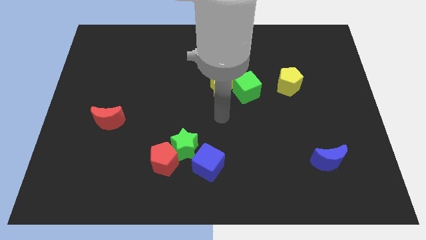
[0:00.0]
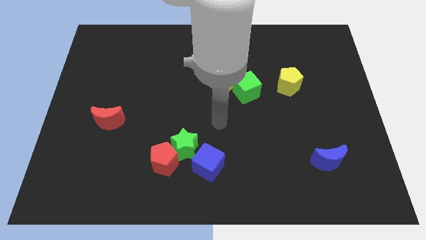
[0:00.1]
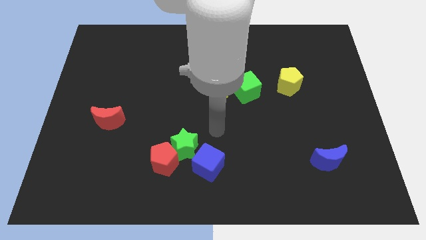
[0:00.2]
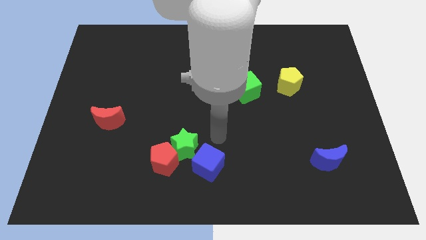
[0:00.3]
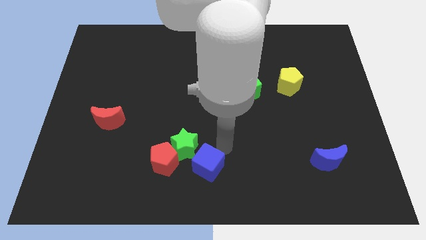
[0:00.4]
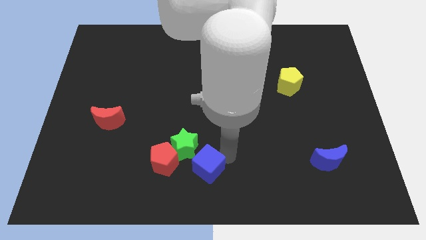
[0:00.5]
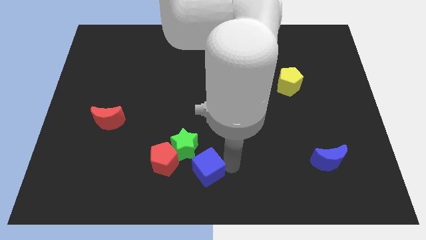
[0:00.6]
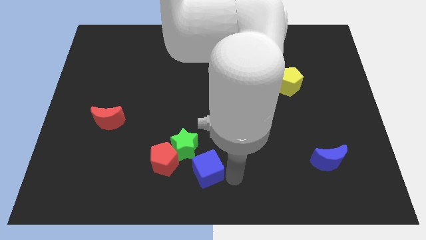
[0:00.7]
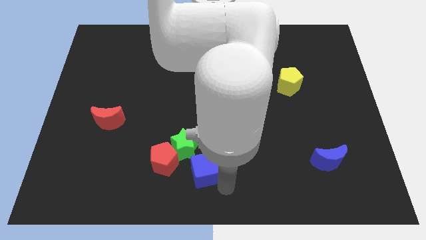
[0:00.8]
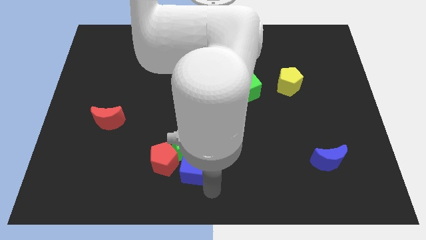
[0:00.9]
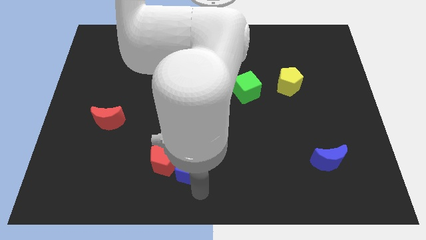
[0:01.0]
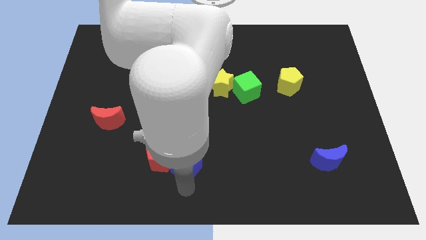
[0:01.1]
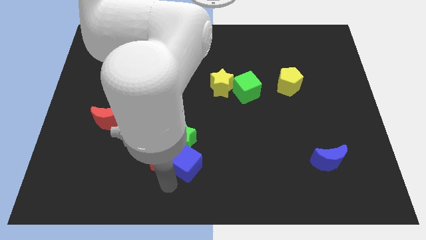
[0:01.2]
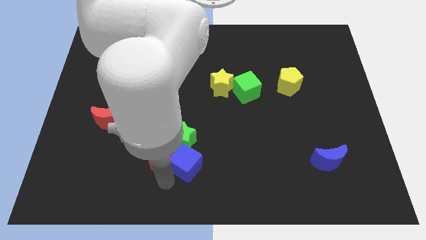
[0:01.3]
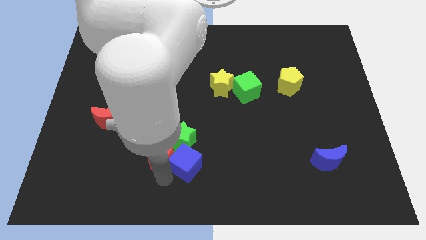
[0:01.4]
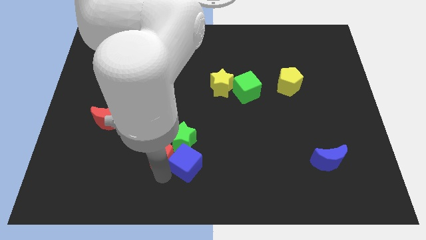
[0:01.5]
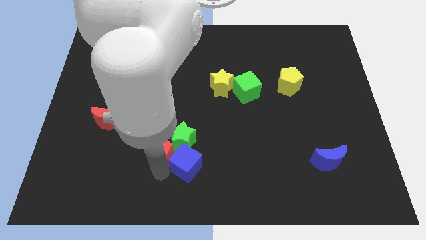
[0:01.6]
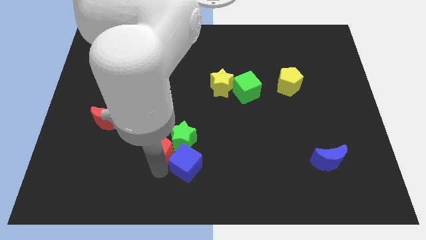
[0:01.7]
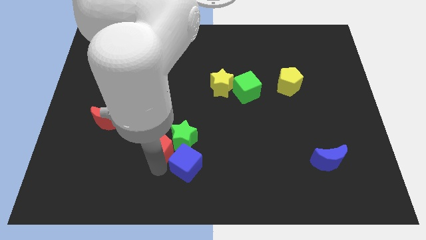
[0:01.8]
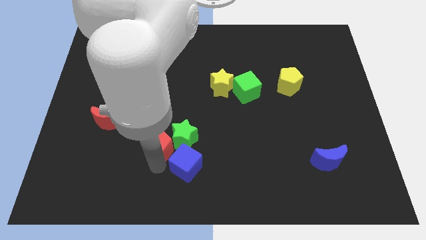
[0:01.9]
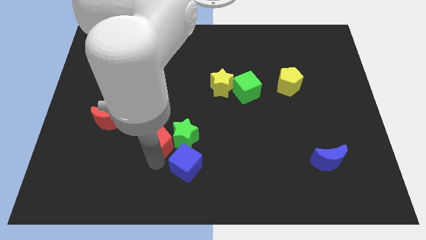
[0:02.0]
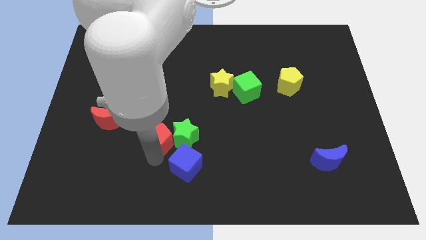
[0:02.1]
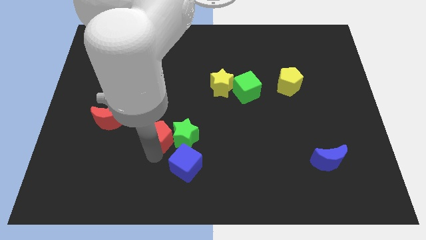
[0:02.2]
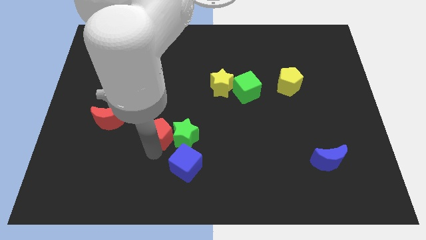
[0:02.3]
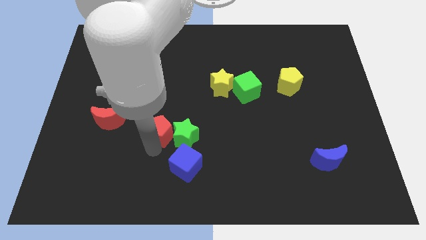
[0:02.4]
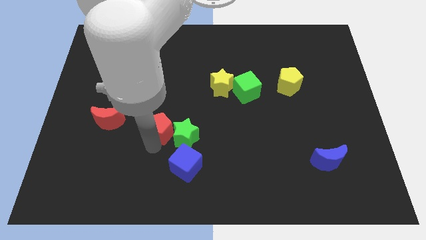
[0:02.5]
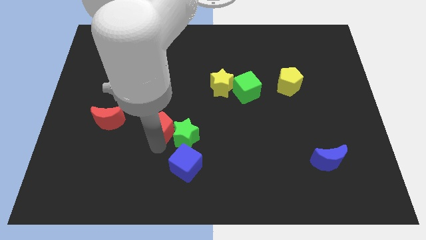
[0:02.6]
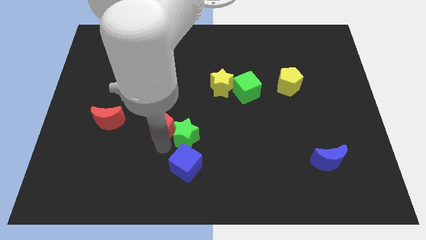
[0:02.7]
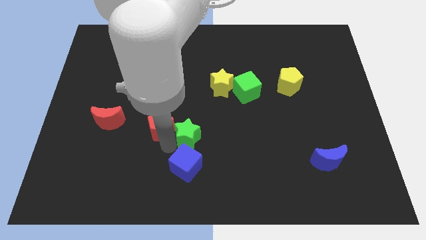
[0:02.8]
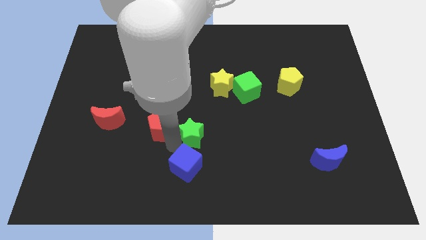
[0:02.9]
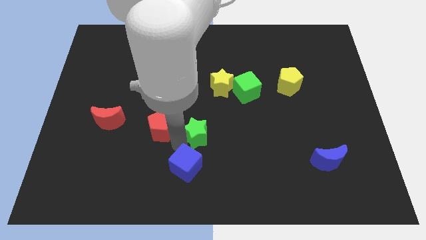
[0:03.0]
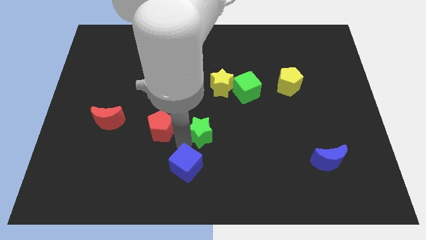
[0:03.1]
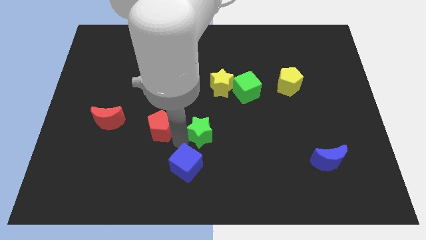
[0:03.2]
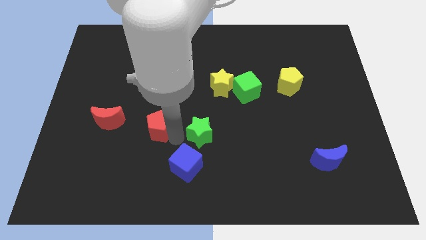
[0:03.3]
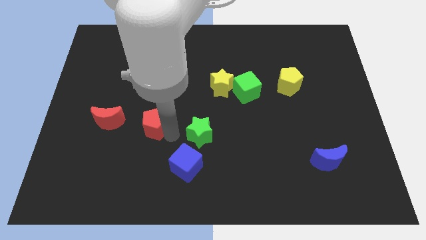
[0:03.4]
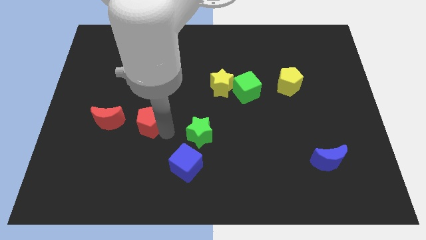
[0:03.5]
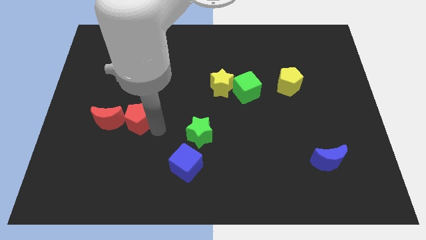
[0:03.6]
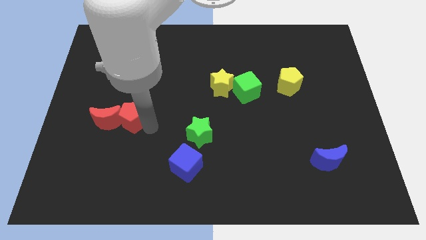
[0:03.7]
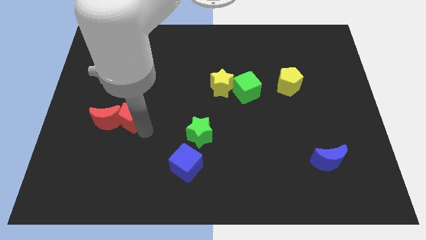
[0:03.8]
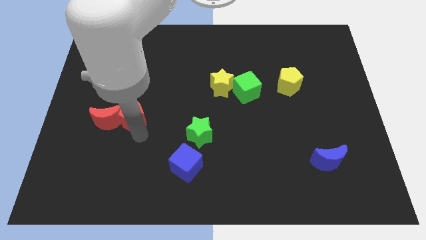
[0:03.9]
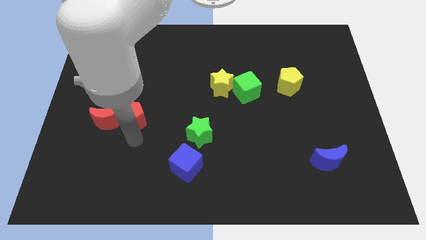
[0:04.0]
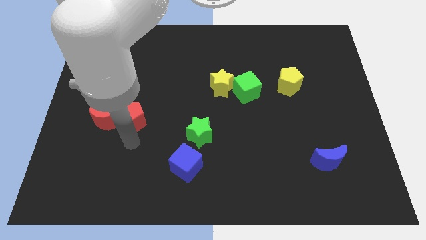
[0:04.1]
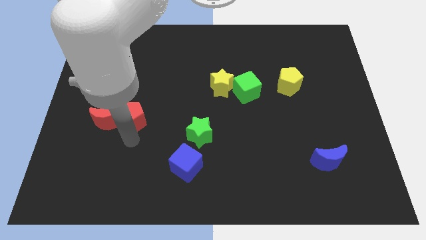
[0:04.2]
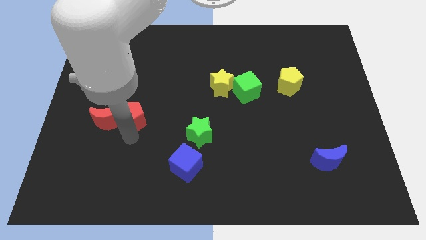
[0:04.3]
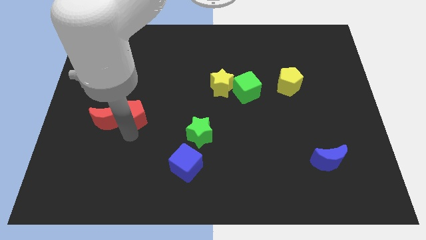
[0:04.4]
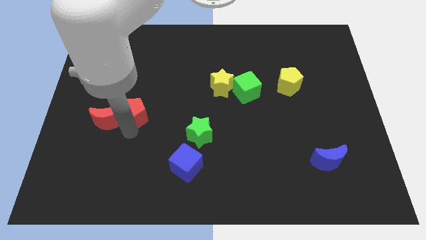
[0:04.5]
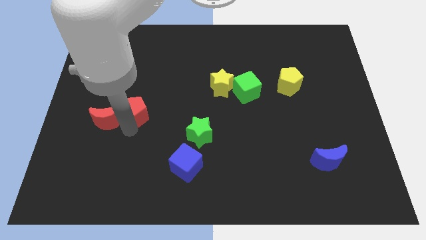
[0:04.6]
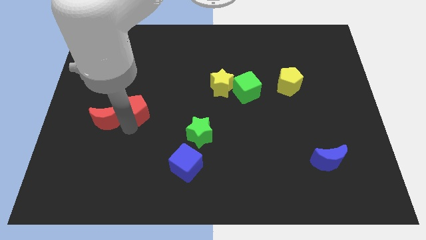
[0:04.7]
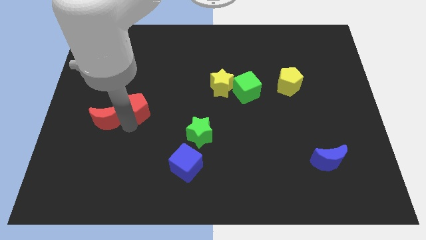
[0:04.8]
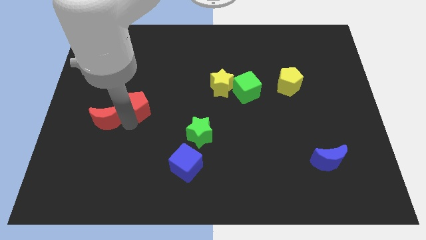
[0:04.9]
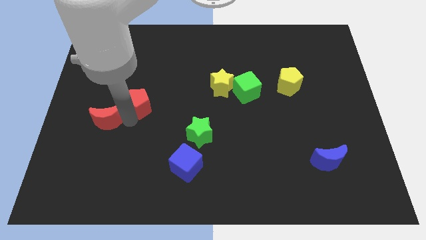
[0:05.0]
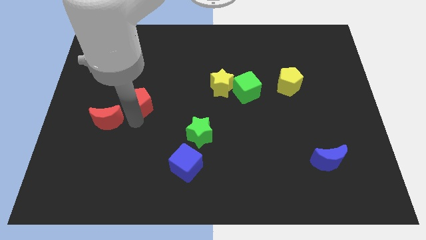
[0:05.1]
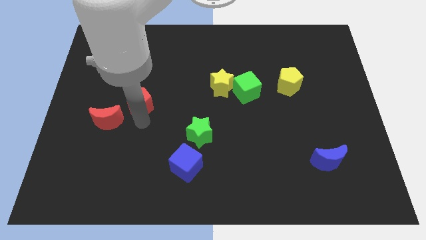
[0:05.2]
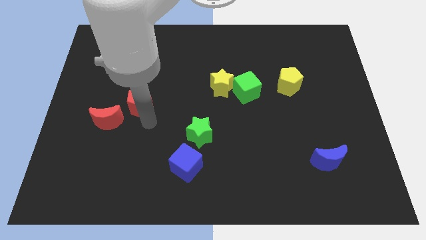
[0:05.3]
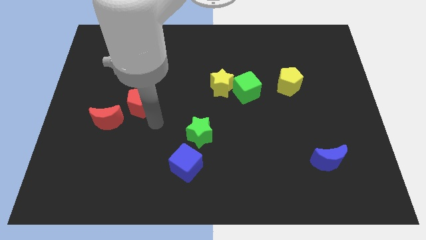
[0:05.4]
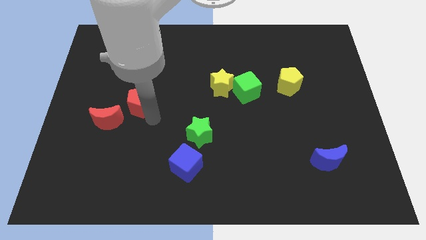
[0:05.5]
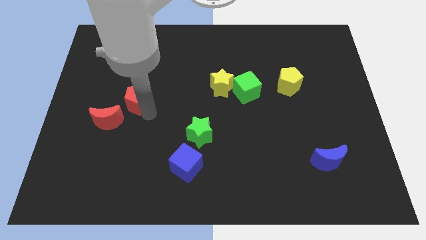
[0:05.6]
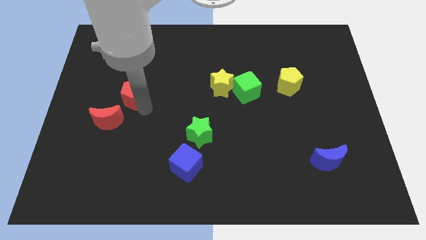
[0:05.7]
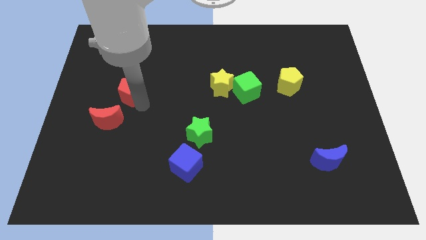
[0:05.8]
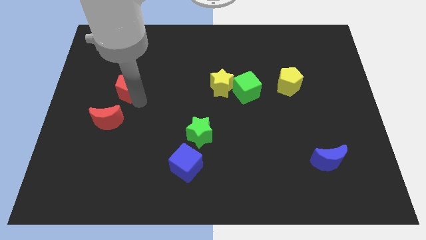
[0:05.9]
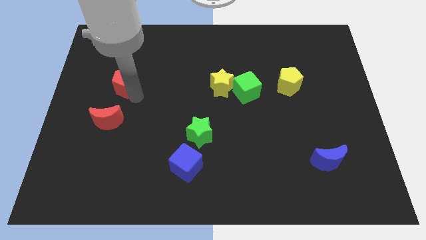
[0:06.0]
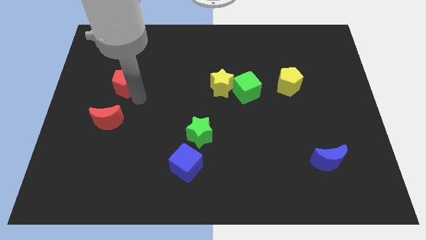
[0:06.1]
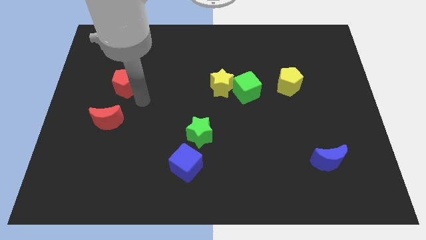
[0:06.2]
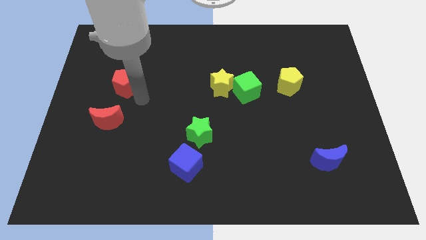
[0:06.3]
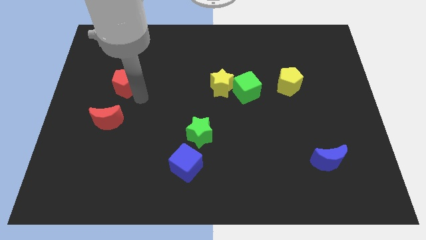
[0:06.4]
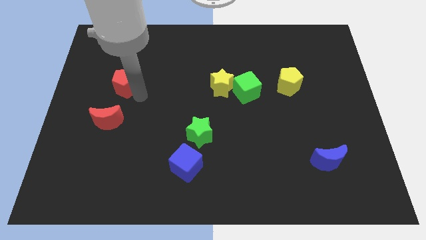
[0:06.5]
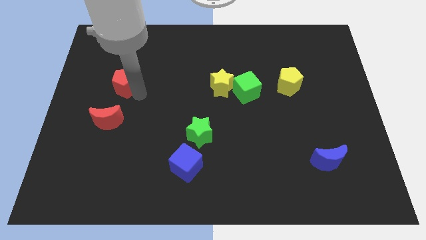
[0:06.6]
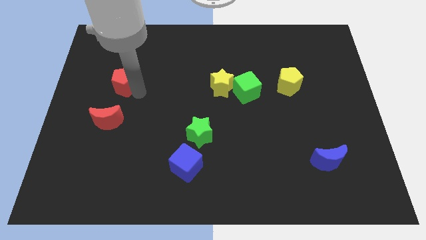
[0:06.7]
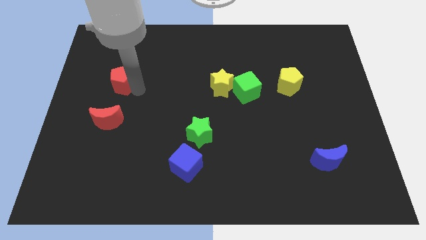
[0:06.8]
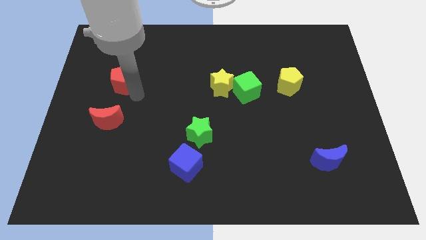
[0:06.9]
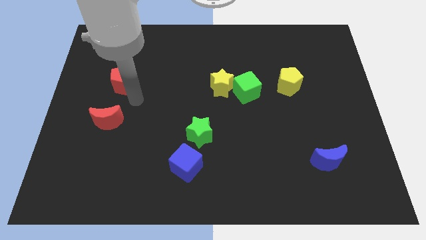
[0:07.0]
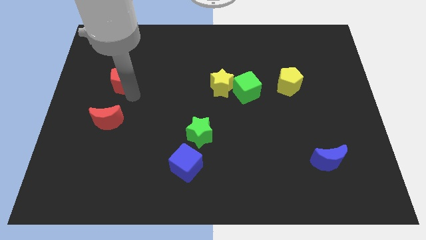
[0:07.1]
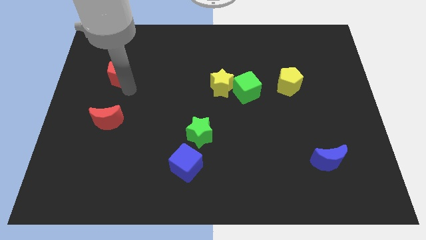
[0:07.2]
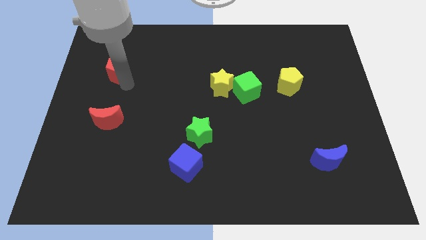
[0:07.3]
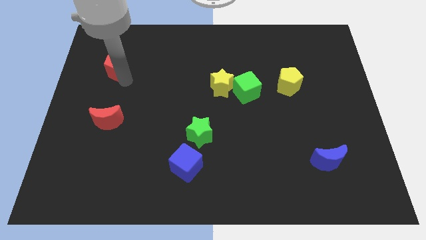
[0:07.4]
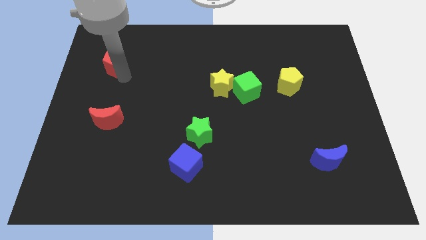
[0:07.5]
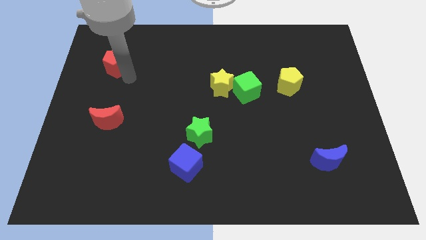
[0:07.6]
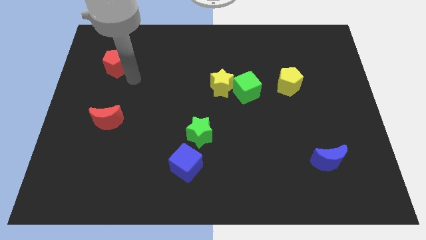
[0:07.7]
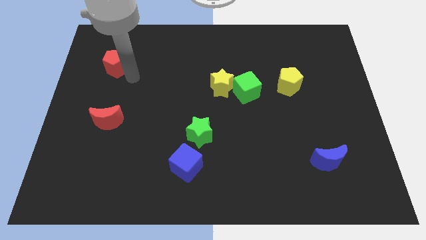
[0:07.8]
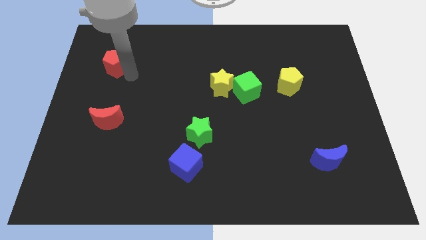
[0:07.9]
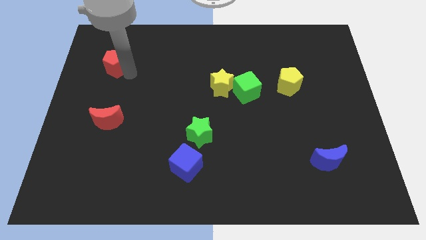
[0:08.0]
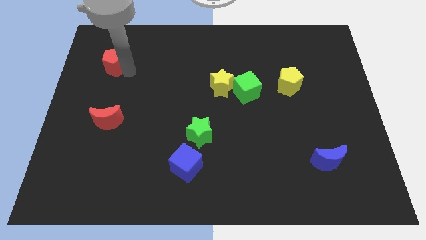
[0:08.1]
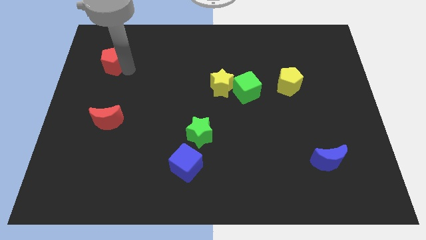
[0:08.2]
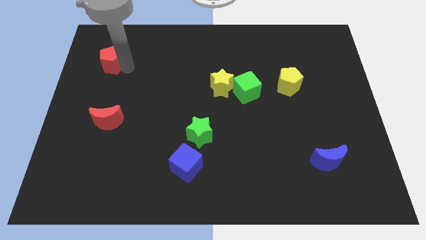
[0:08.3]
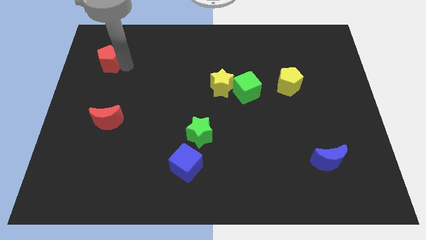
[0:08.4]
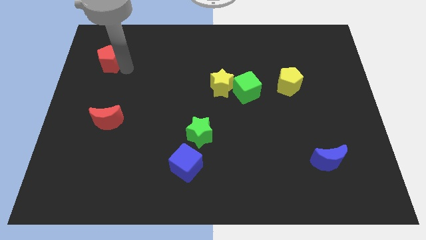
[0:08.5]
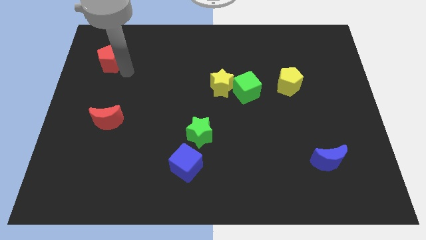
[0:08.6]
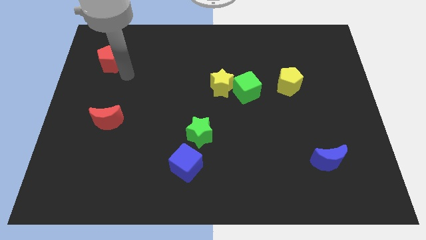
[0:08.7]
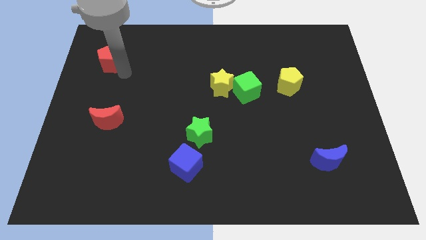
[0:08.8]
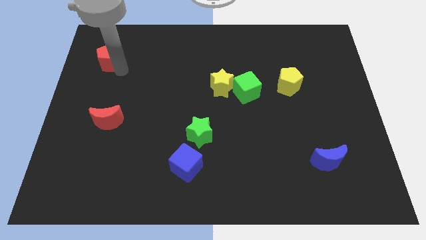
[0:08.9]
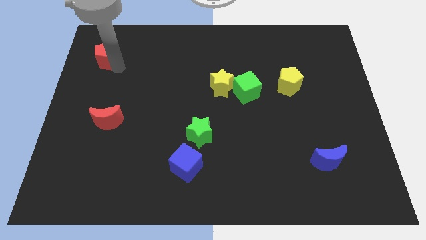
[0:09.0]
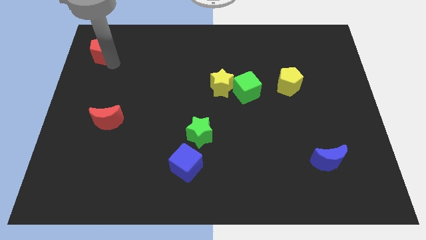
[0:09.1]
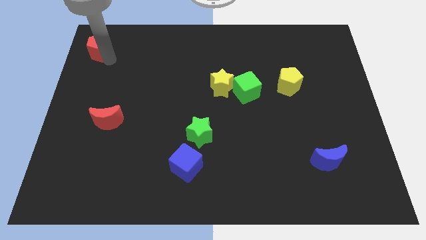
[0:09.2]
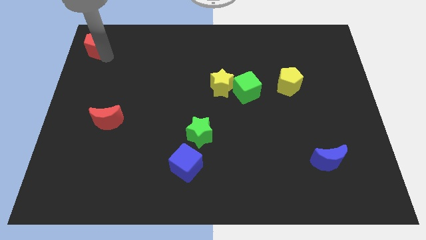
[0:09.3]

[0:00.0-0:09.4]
slide the red pentagon to the upper left corner
